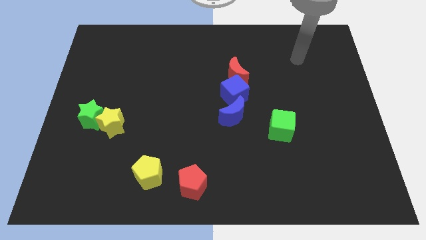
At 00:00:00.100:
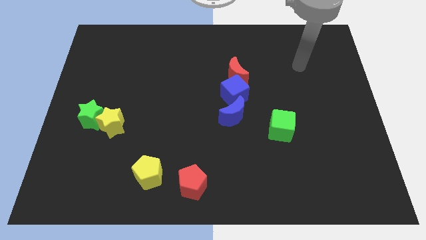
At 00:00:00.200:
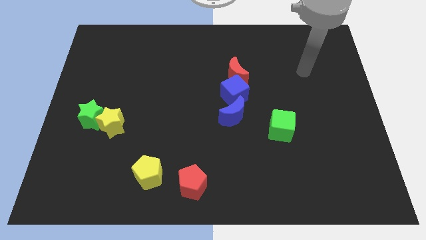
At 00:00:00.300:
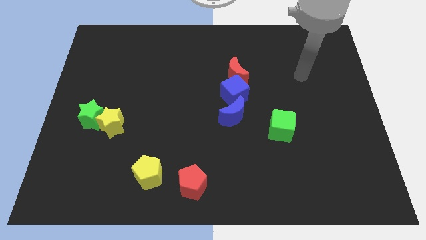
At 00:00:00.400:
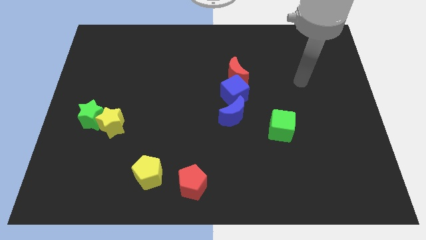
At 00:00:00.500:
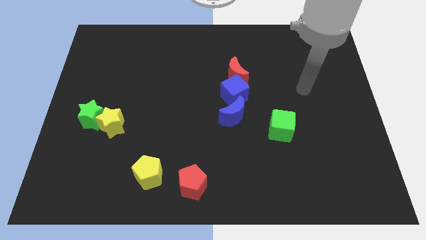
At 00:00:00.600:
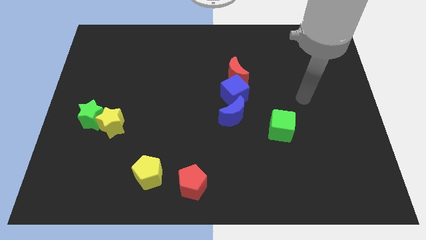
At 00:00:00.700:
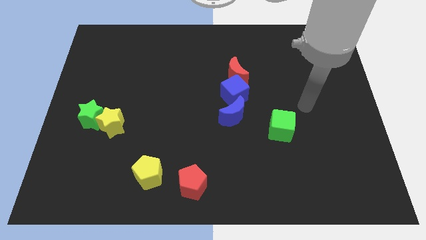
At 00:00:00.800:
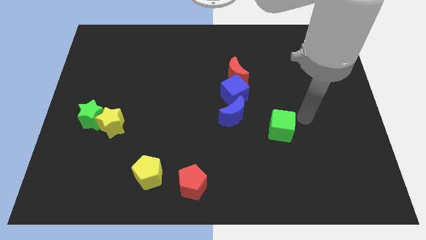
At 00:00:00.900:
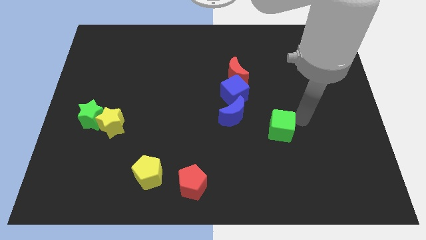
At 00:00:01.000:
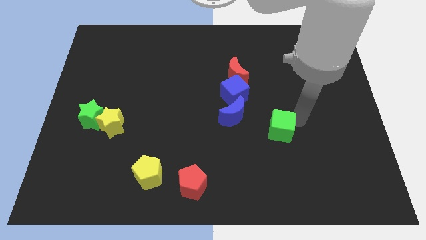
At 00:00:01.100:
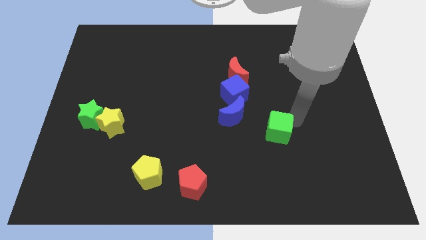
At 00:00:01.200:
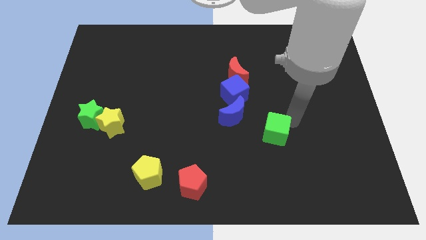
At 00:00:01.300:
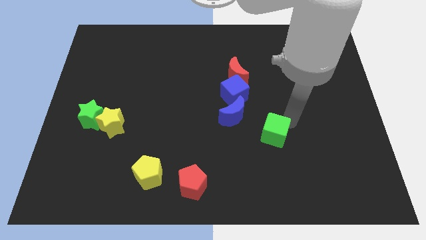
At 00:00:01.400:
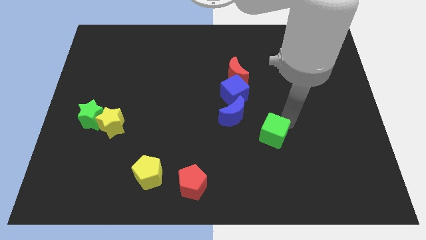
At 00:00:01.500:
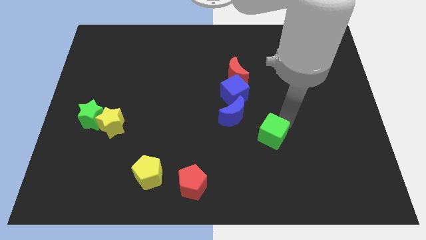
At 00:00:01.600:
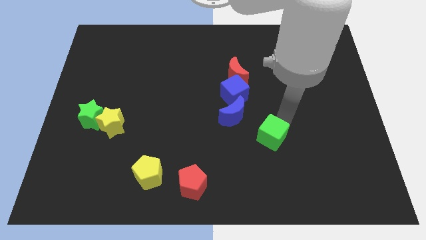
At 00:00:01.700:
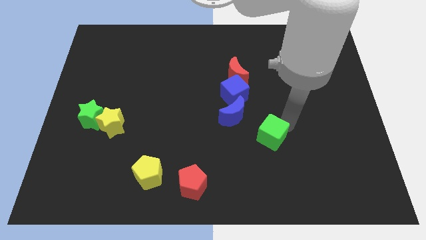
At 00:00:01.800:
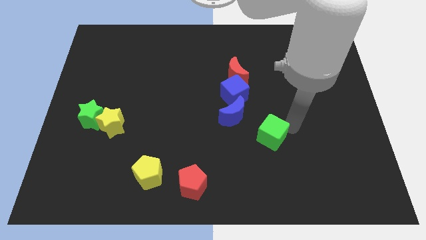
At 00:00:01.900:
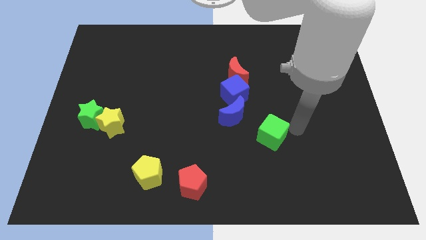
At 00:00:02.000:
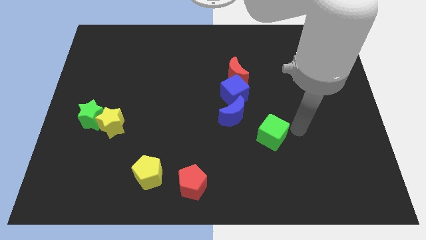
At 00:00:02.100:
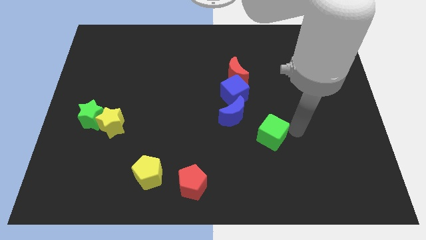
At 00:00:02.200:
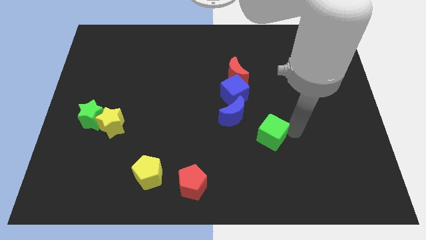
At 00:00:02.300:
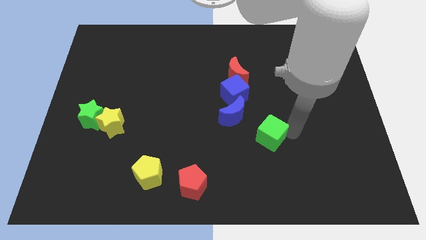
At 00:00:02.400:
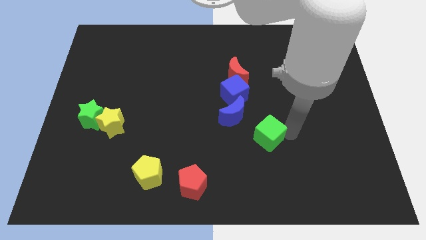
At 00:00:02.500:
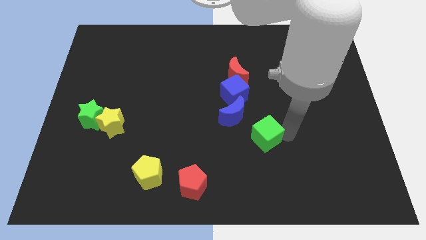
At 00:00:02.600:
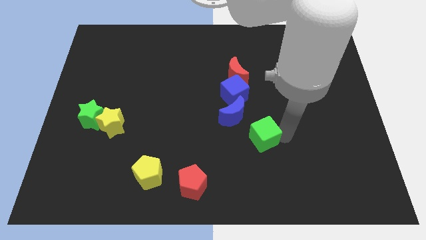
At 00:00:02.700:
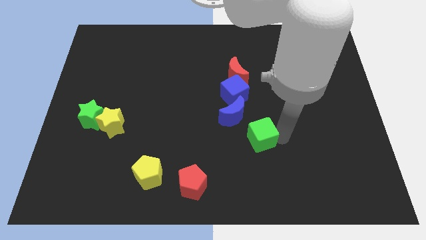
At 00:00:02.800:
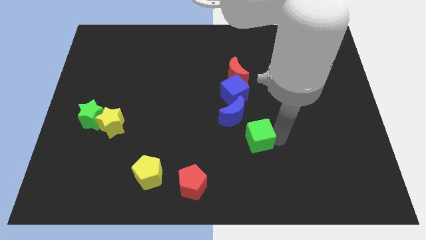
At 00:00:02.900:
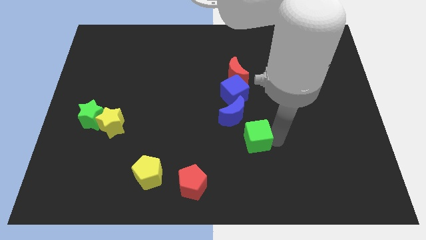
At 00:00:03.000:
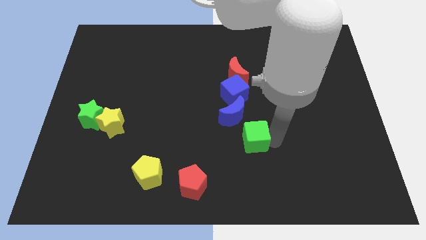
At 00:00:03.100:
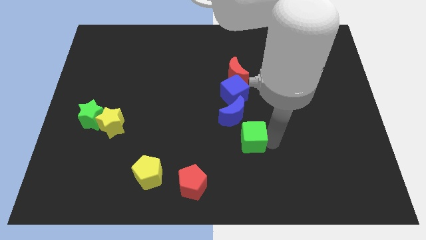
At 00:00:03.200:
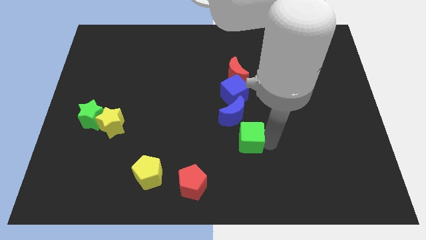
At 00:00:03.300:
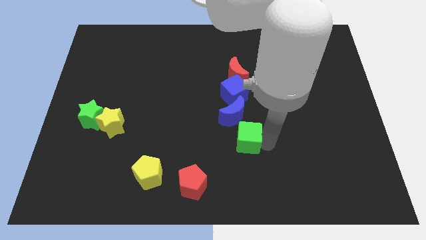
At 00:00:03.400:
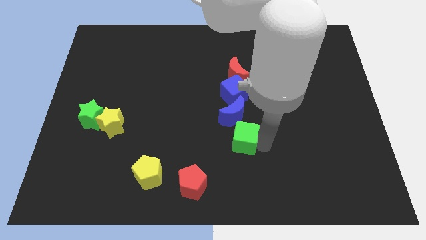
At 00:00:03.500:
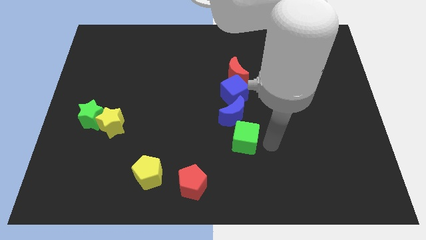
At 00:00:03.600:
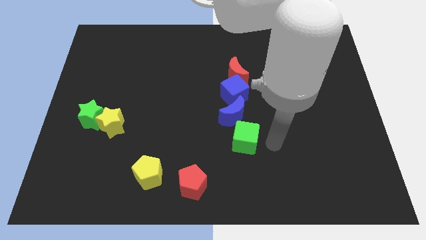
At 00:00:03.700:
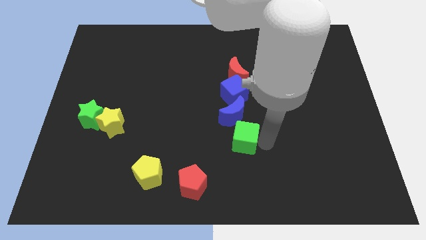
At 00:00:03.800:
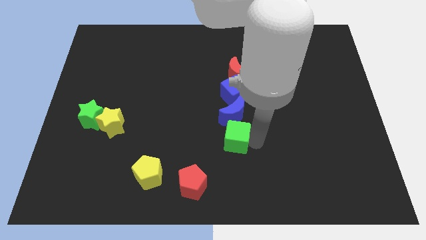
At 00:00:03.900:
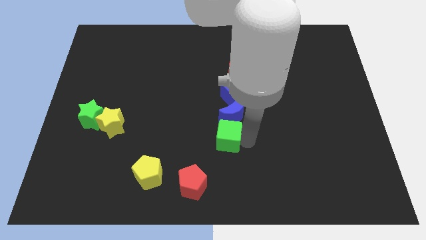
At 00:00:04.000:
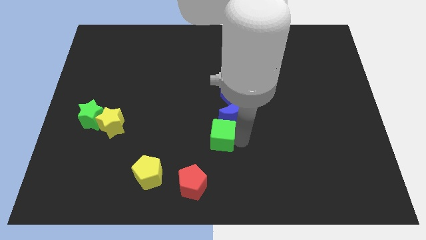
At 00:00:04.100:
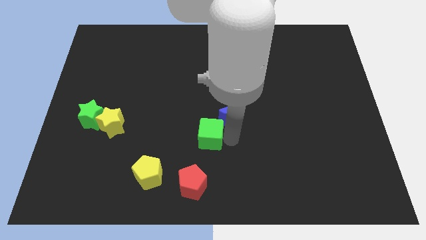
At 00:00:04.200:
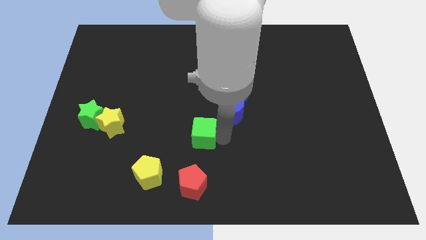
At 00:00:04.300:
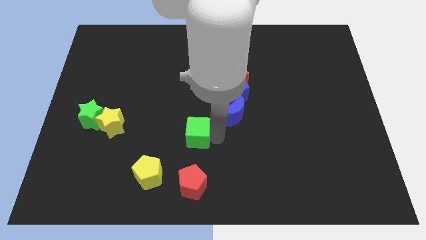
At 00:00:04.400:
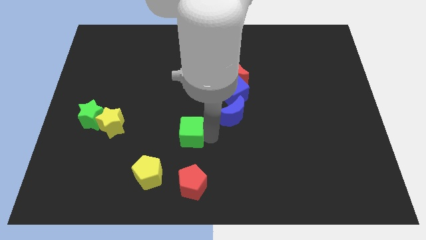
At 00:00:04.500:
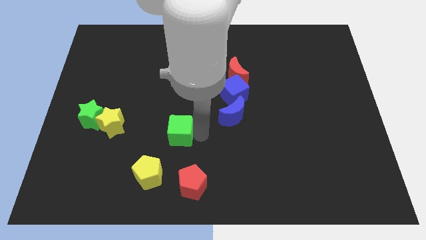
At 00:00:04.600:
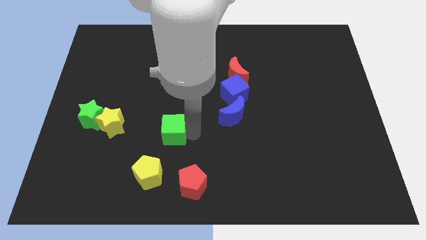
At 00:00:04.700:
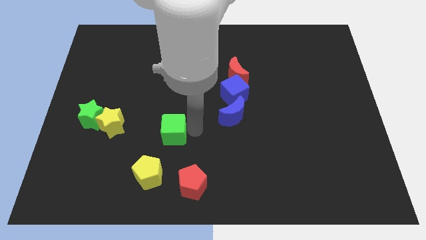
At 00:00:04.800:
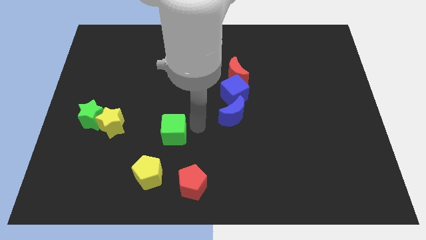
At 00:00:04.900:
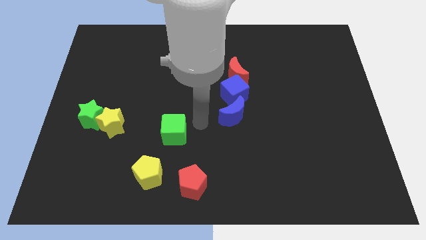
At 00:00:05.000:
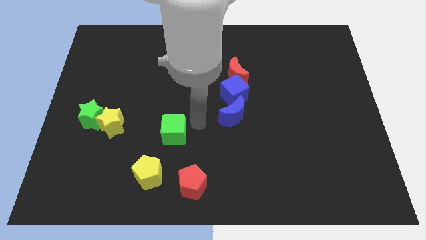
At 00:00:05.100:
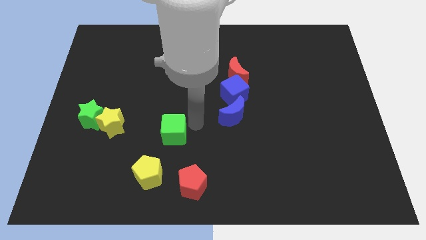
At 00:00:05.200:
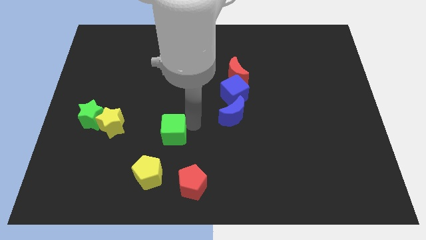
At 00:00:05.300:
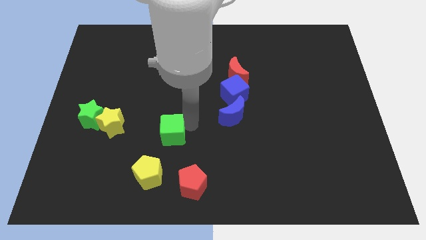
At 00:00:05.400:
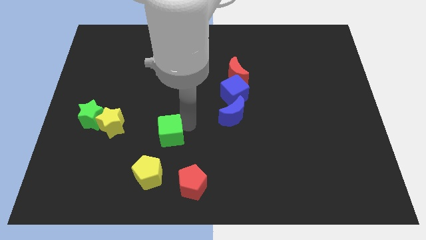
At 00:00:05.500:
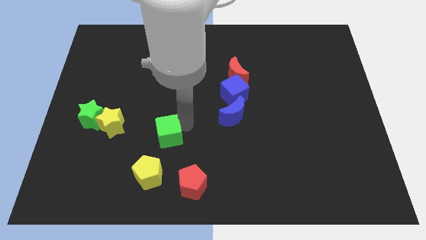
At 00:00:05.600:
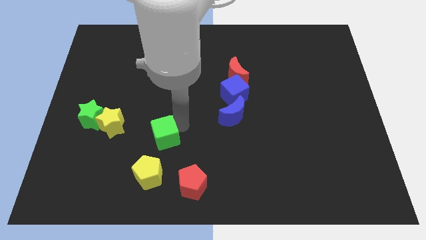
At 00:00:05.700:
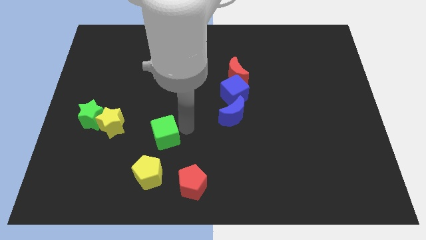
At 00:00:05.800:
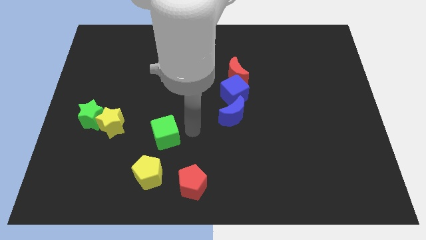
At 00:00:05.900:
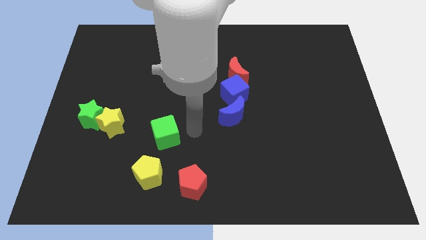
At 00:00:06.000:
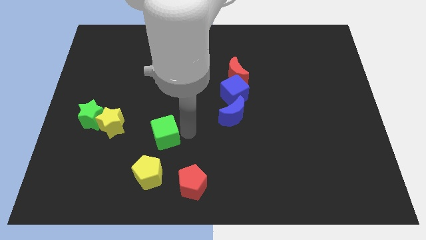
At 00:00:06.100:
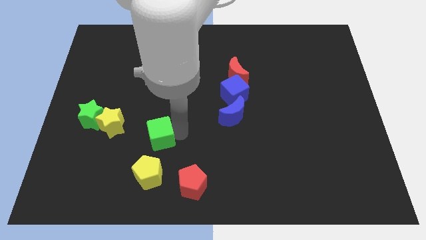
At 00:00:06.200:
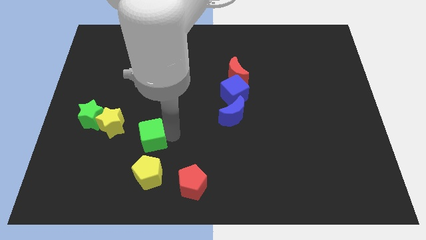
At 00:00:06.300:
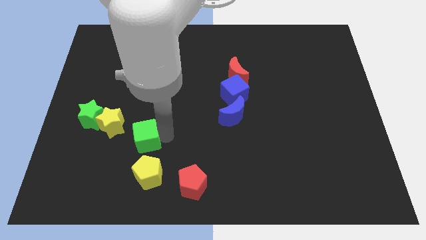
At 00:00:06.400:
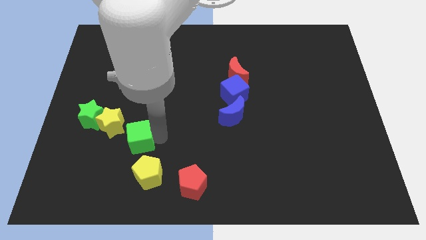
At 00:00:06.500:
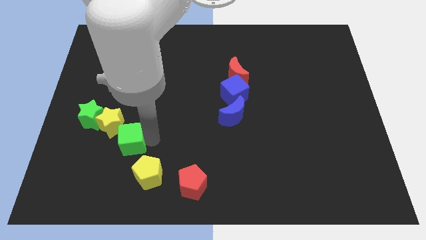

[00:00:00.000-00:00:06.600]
push the green cube diagonally down and to the right of the green star

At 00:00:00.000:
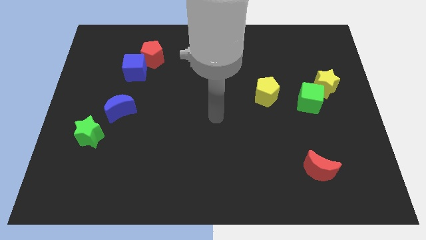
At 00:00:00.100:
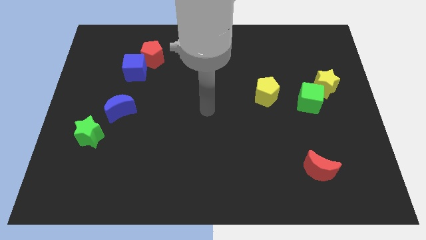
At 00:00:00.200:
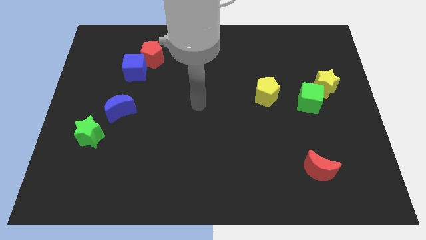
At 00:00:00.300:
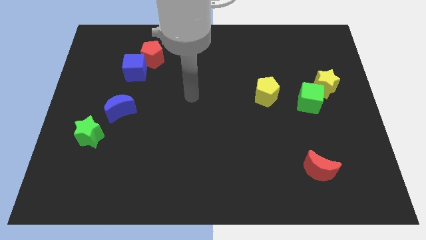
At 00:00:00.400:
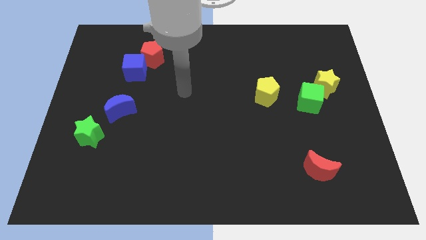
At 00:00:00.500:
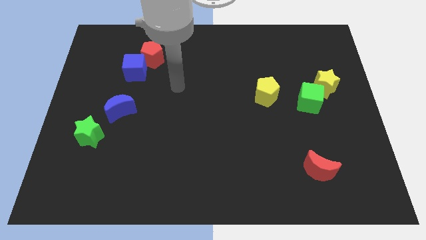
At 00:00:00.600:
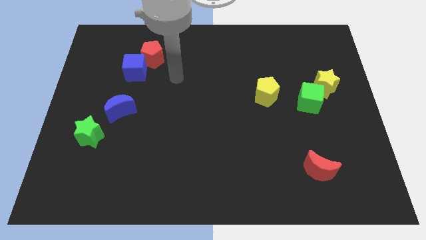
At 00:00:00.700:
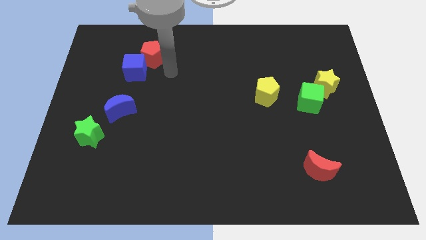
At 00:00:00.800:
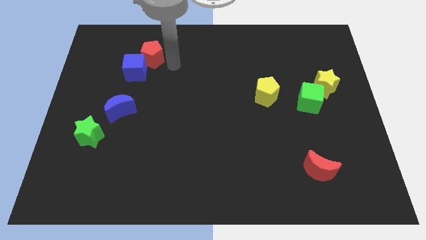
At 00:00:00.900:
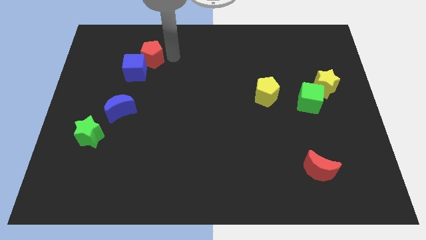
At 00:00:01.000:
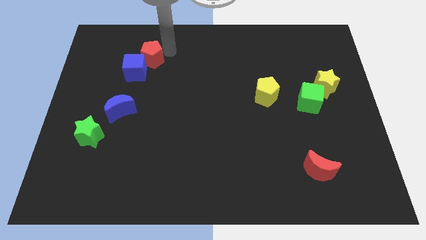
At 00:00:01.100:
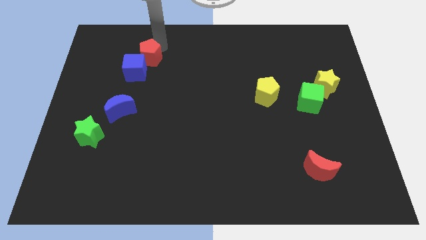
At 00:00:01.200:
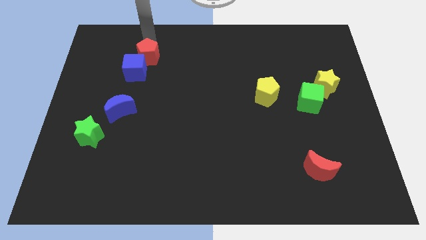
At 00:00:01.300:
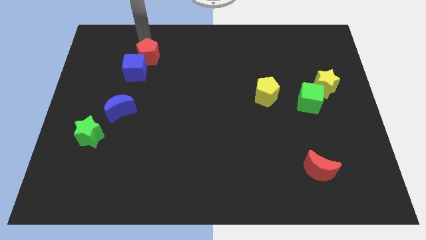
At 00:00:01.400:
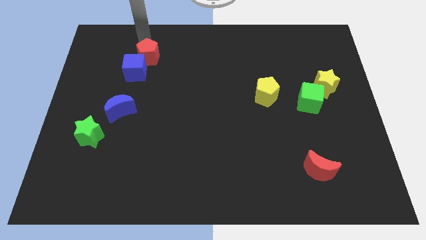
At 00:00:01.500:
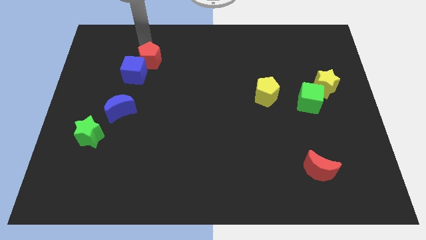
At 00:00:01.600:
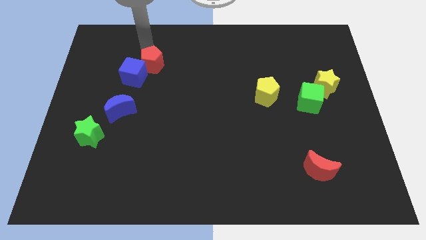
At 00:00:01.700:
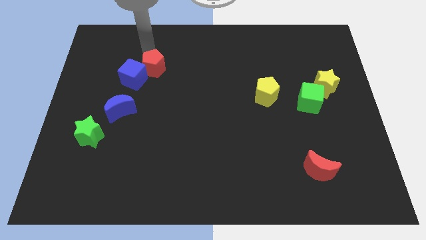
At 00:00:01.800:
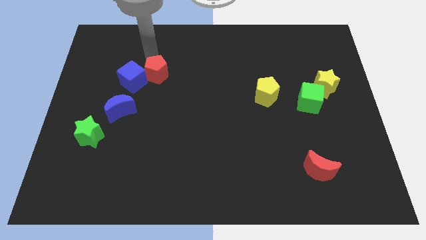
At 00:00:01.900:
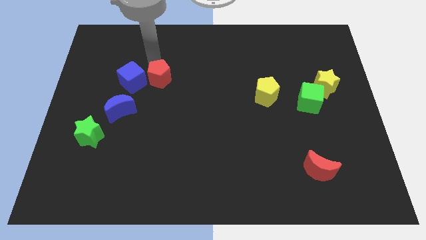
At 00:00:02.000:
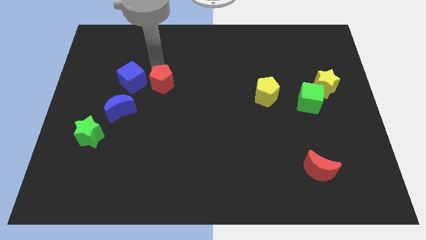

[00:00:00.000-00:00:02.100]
slide the red pentagon diagonally down and to the right of the blue cube
